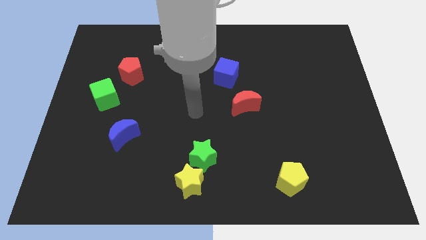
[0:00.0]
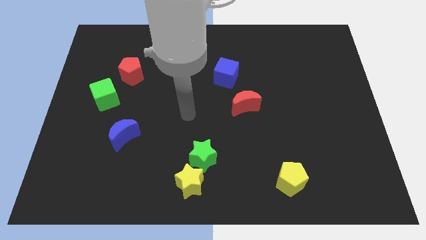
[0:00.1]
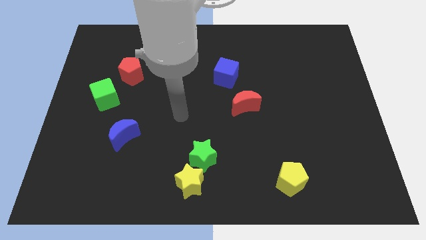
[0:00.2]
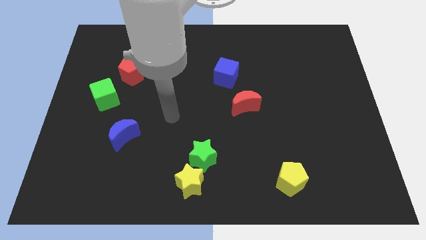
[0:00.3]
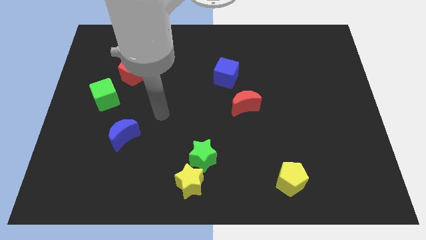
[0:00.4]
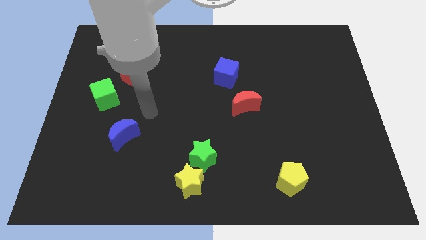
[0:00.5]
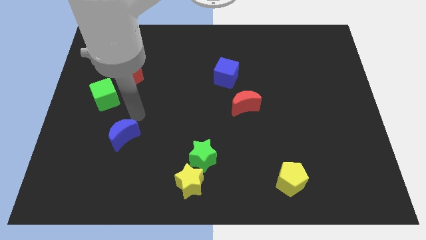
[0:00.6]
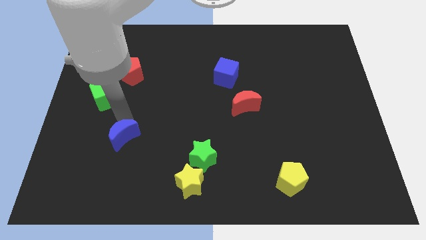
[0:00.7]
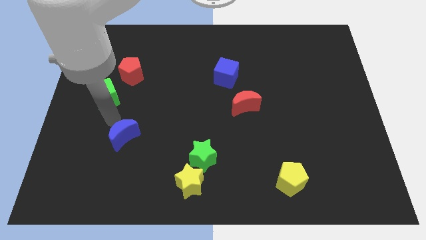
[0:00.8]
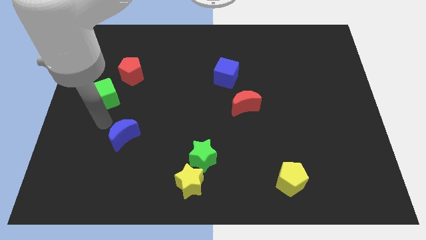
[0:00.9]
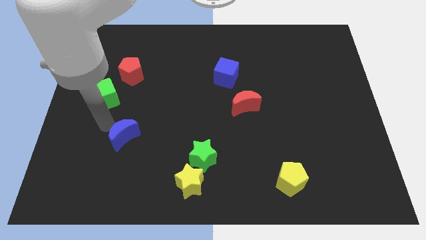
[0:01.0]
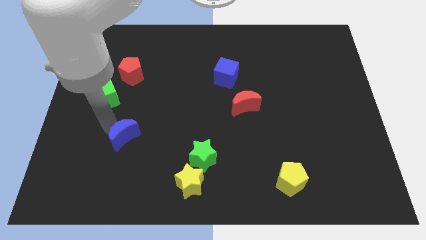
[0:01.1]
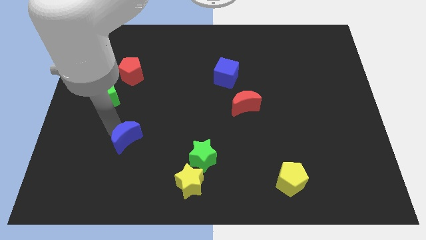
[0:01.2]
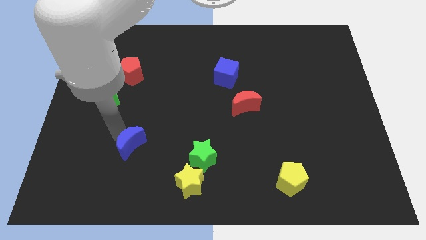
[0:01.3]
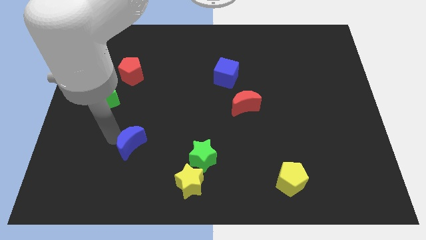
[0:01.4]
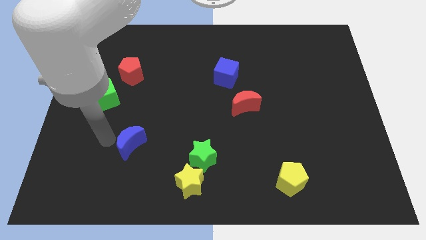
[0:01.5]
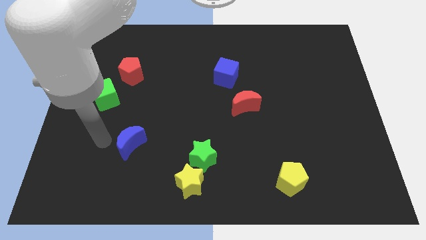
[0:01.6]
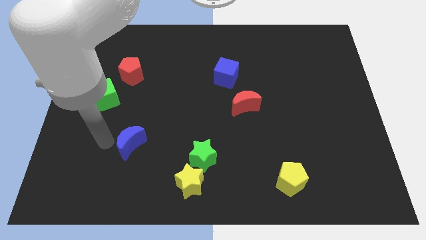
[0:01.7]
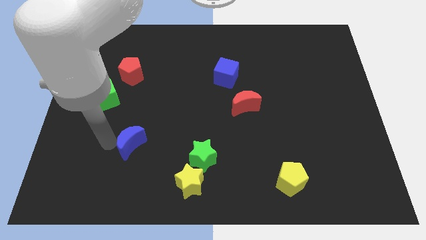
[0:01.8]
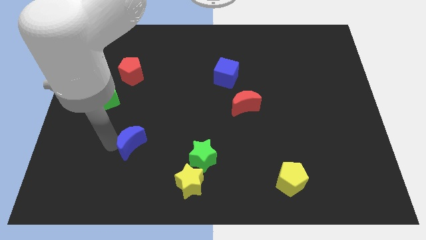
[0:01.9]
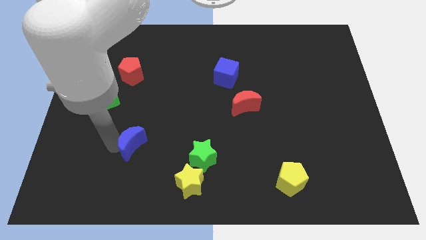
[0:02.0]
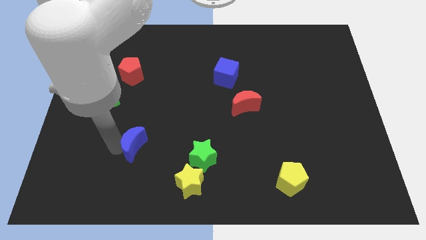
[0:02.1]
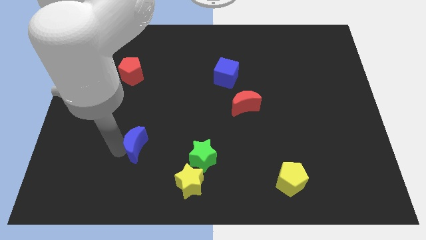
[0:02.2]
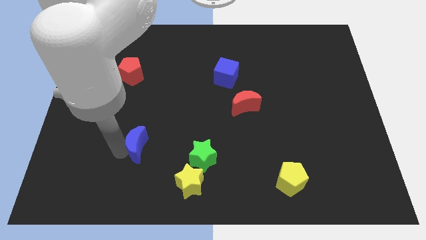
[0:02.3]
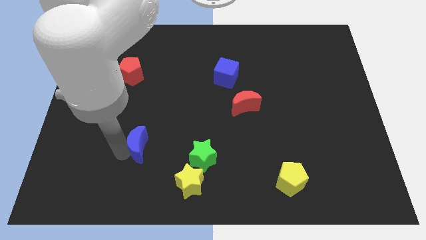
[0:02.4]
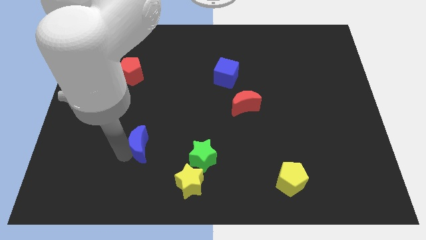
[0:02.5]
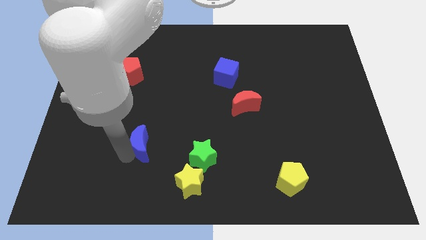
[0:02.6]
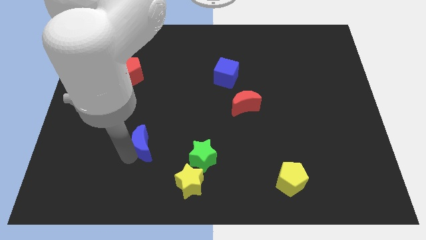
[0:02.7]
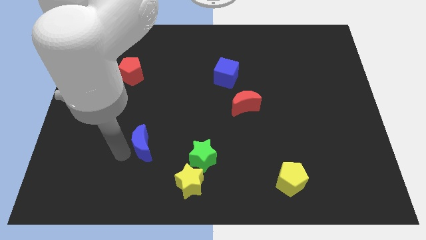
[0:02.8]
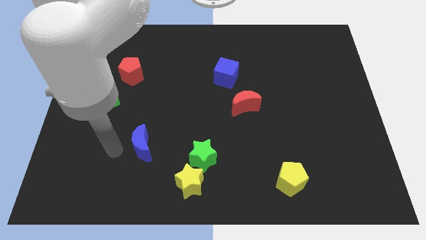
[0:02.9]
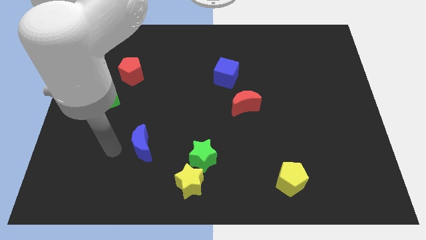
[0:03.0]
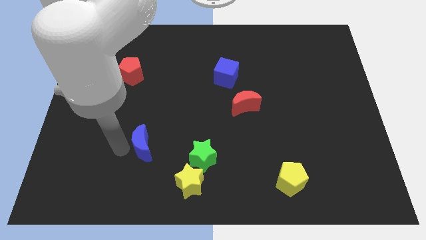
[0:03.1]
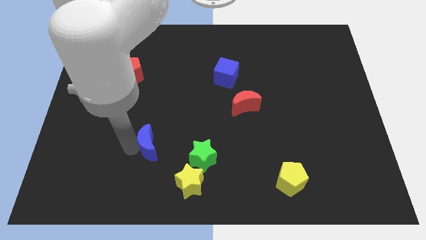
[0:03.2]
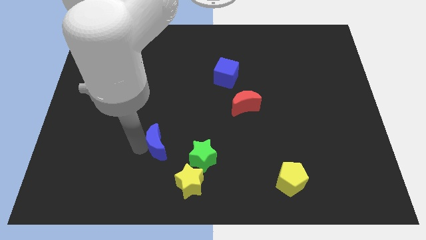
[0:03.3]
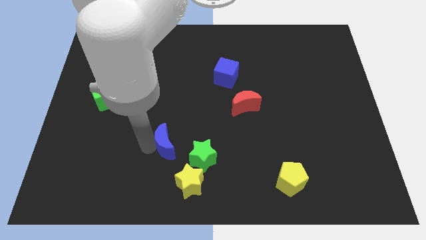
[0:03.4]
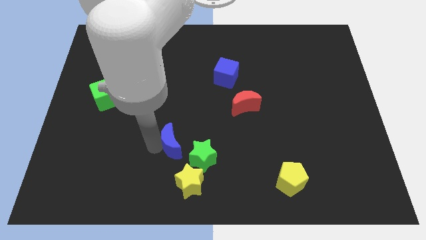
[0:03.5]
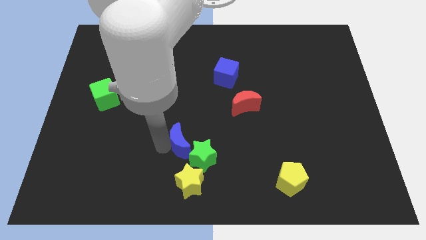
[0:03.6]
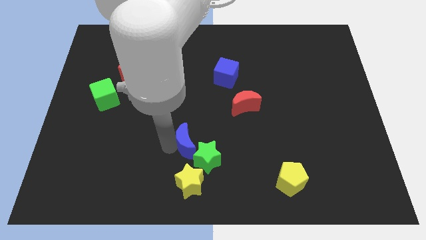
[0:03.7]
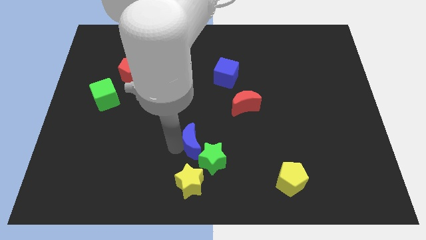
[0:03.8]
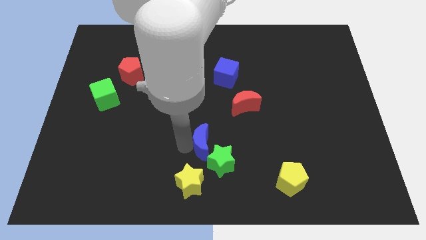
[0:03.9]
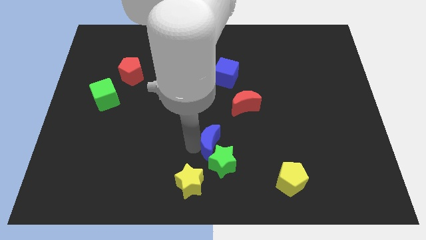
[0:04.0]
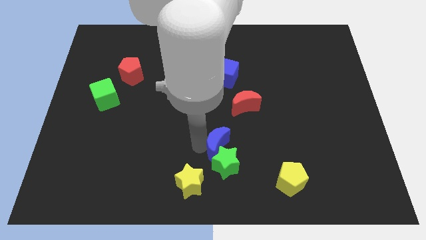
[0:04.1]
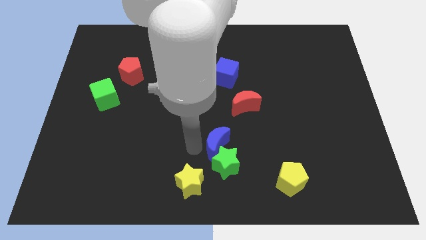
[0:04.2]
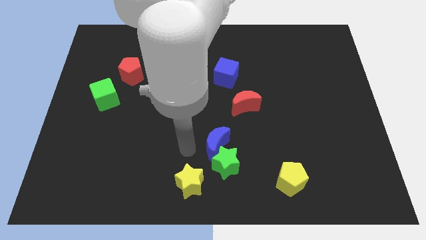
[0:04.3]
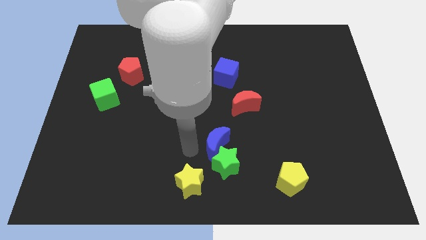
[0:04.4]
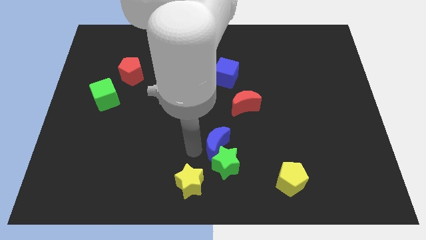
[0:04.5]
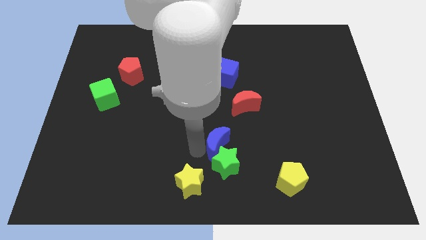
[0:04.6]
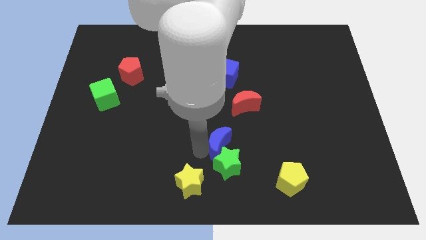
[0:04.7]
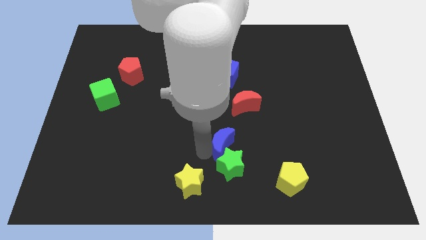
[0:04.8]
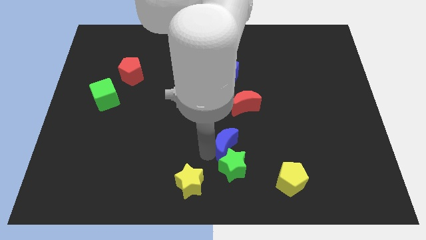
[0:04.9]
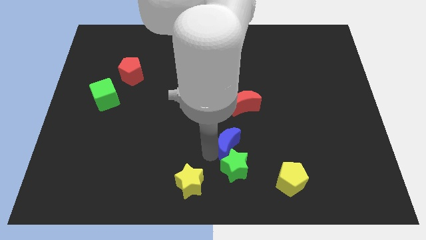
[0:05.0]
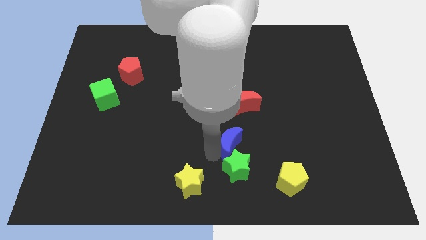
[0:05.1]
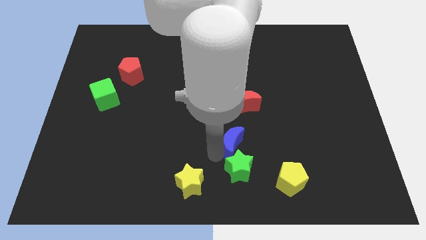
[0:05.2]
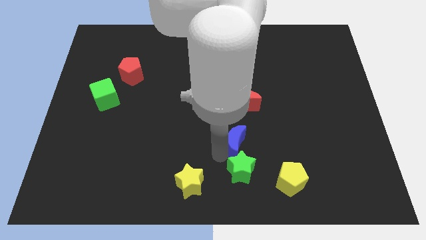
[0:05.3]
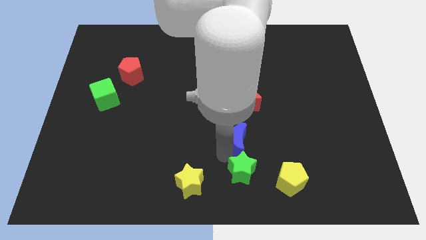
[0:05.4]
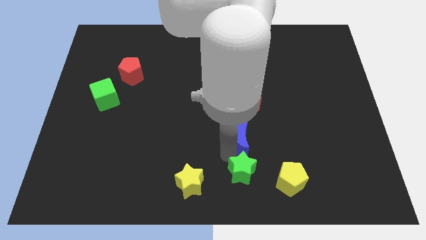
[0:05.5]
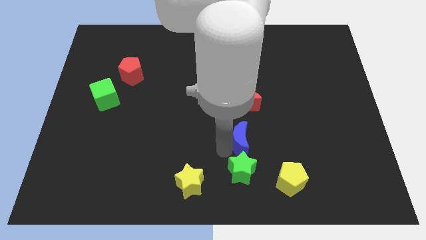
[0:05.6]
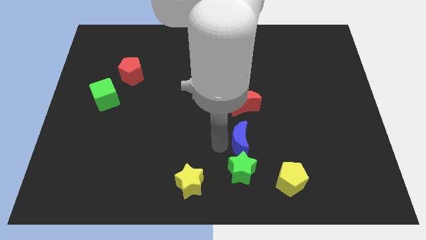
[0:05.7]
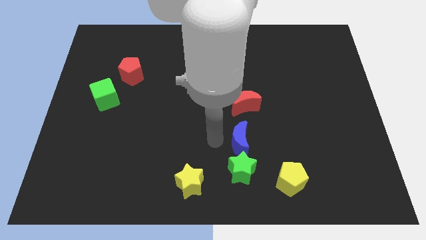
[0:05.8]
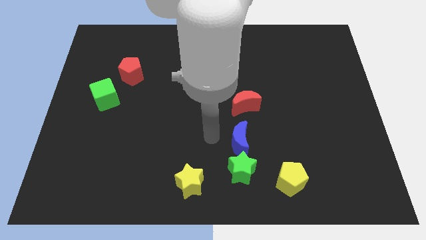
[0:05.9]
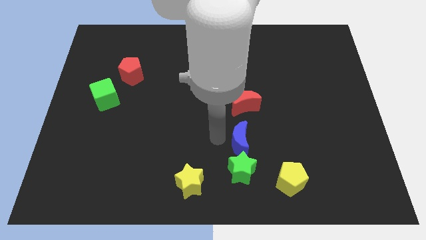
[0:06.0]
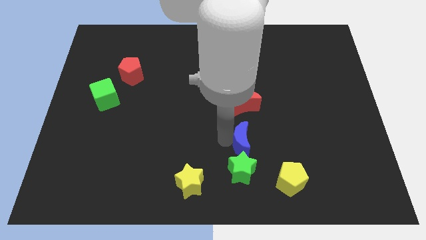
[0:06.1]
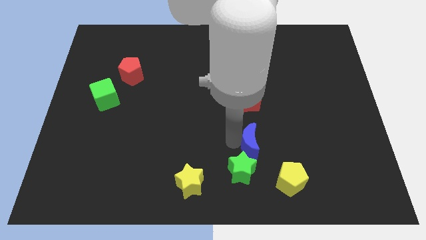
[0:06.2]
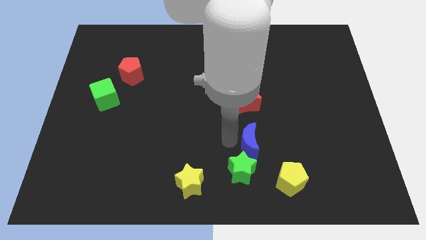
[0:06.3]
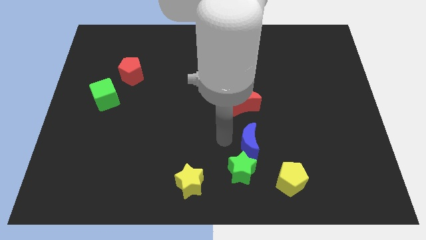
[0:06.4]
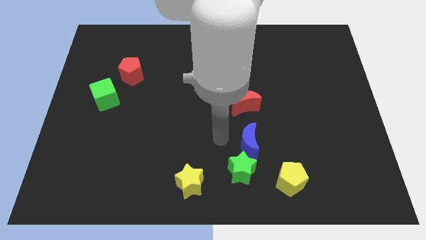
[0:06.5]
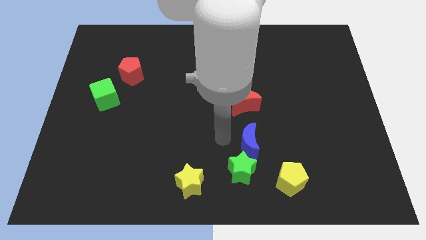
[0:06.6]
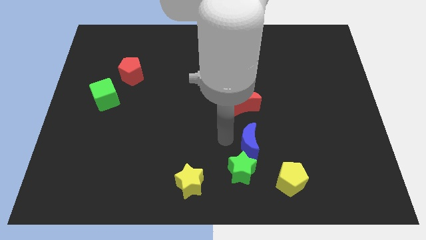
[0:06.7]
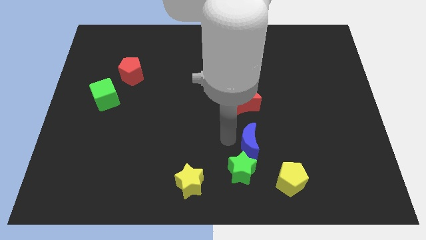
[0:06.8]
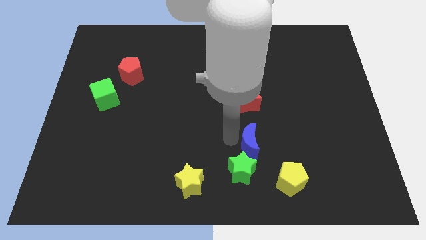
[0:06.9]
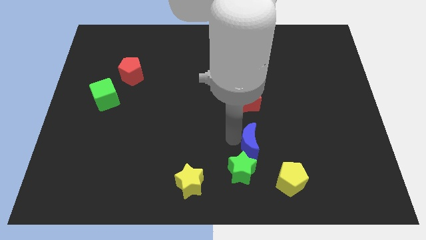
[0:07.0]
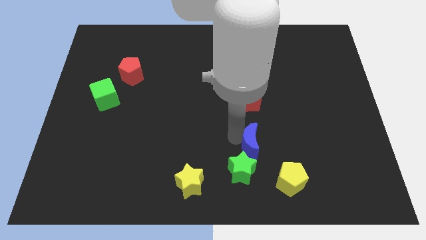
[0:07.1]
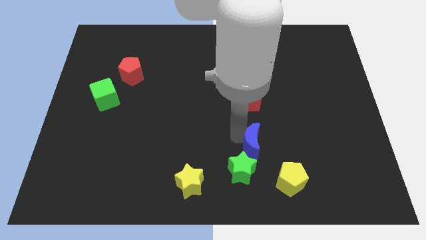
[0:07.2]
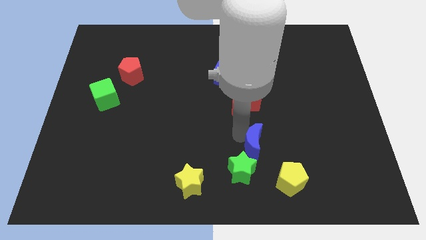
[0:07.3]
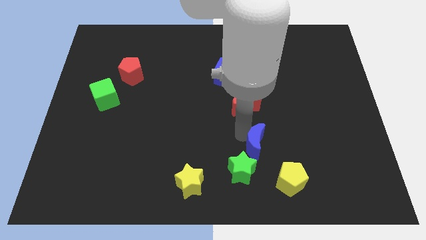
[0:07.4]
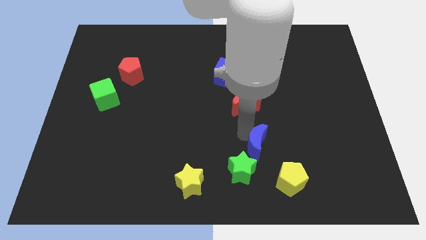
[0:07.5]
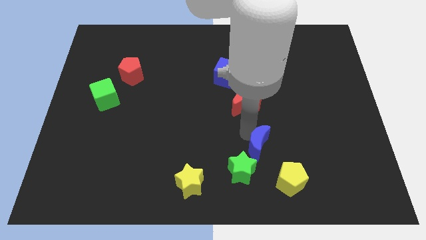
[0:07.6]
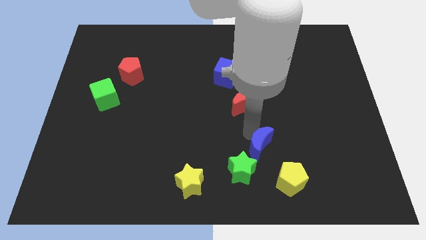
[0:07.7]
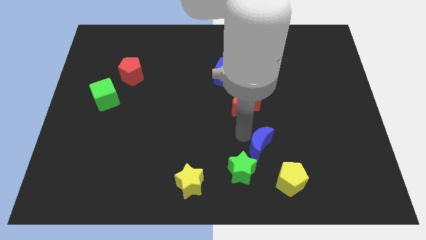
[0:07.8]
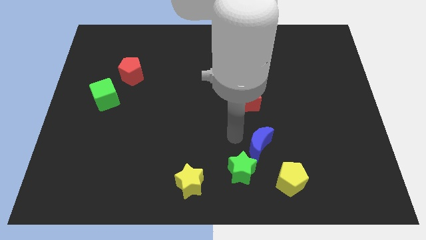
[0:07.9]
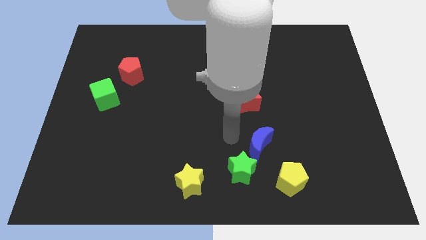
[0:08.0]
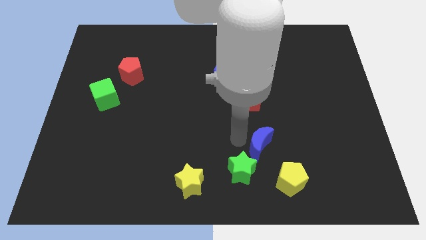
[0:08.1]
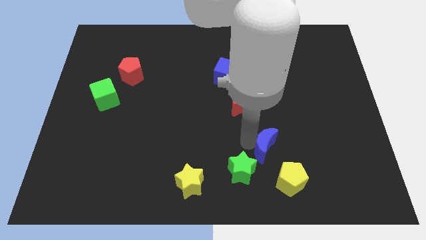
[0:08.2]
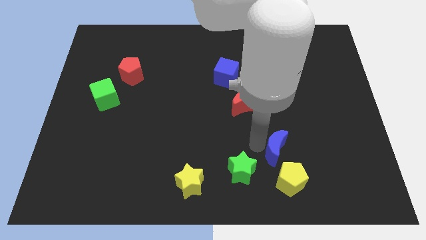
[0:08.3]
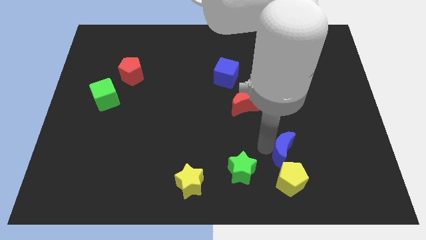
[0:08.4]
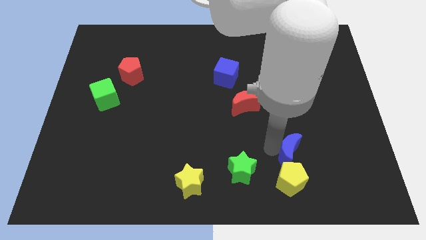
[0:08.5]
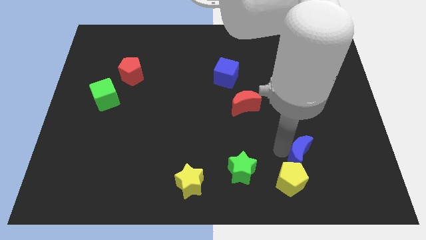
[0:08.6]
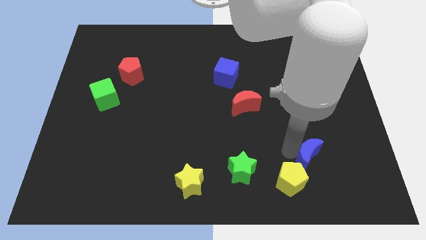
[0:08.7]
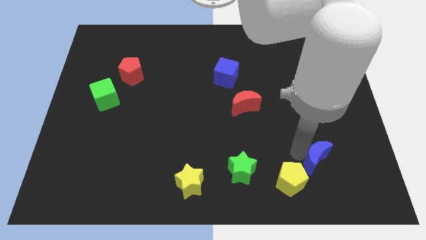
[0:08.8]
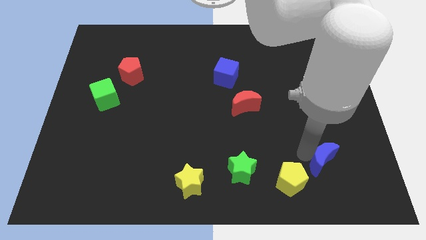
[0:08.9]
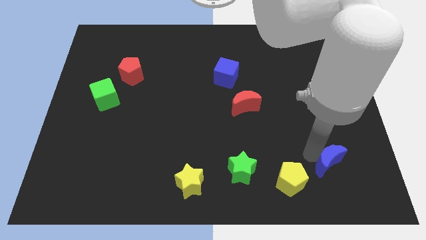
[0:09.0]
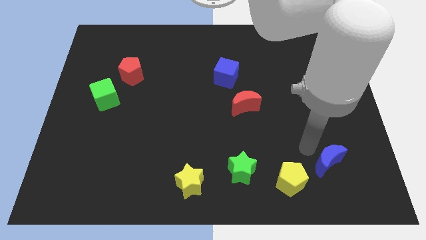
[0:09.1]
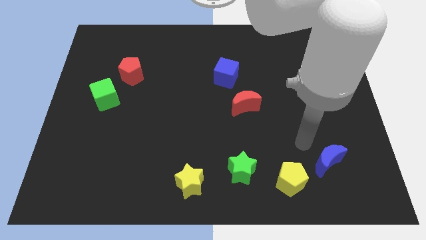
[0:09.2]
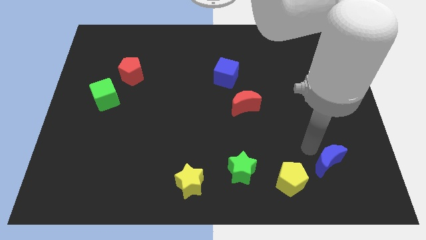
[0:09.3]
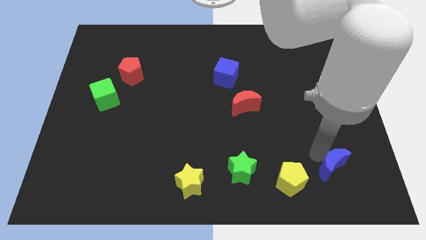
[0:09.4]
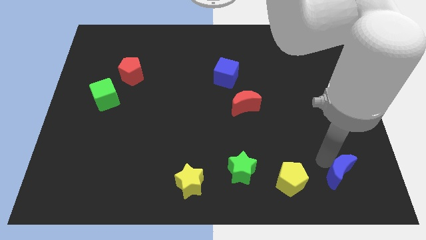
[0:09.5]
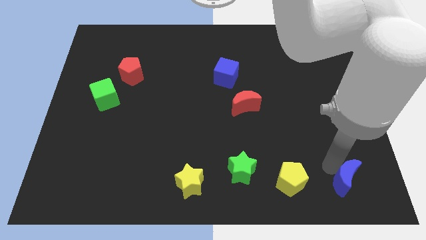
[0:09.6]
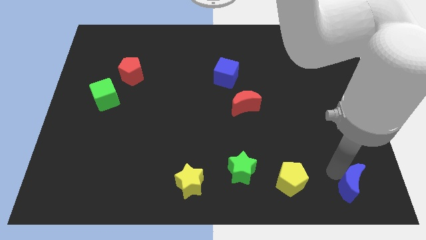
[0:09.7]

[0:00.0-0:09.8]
put the blue moon to the bottom right corner
